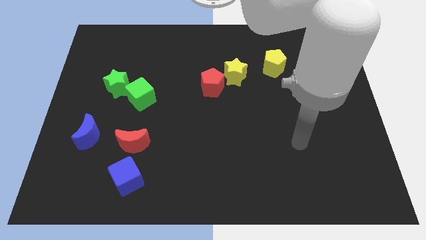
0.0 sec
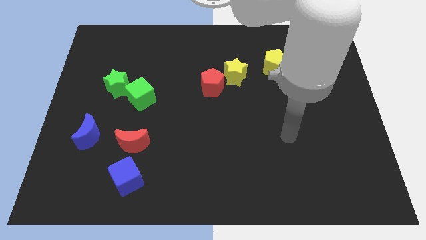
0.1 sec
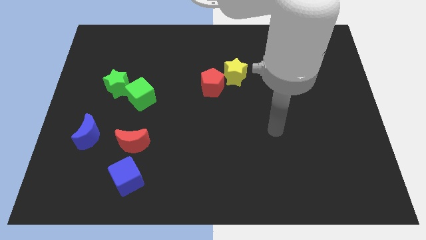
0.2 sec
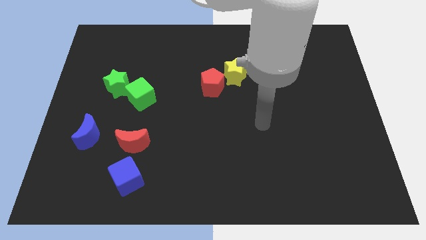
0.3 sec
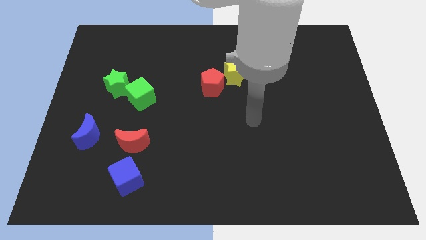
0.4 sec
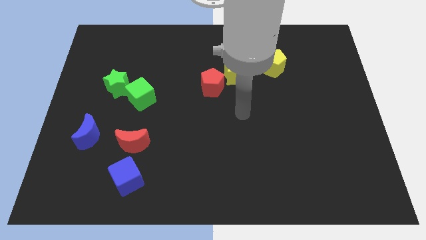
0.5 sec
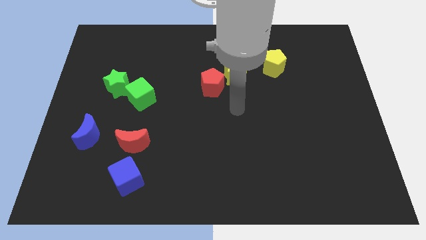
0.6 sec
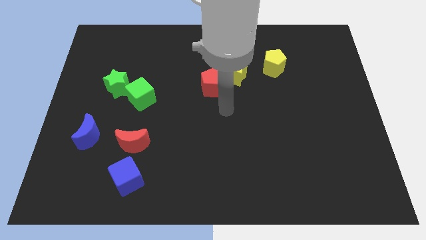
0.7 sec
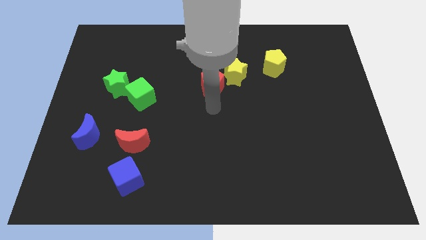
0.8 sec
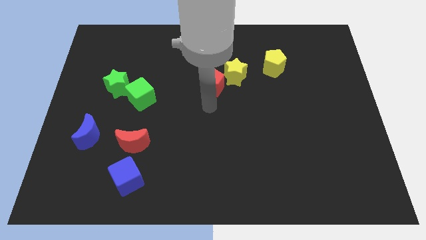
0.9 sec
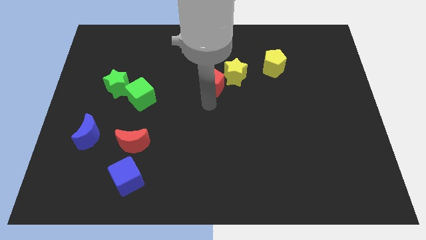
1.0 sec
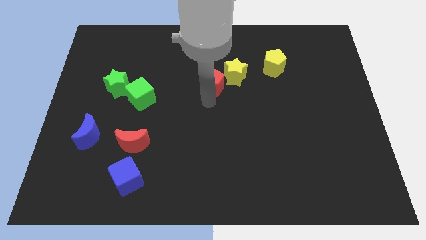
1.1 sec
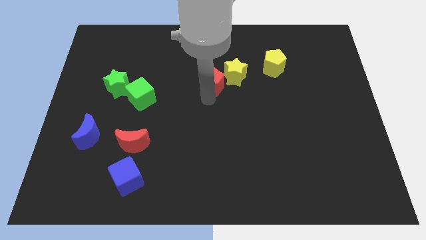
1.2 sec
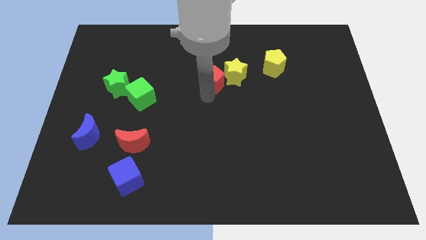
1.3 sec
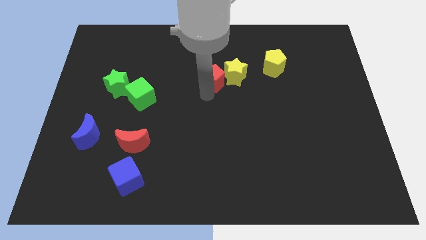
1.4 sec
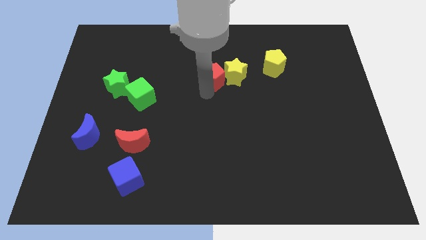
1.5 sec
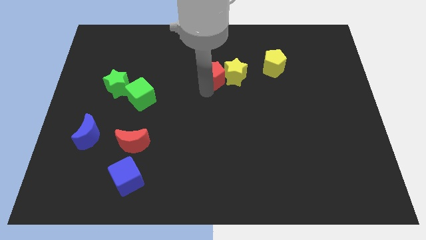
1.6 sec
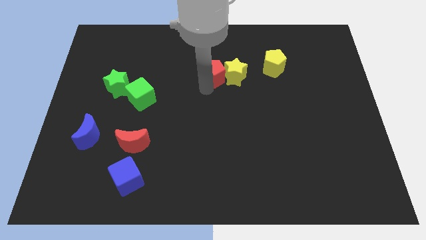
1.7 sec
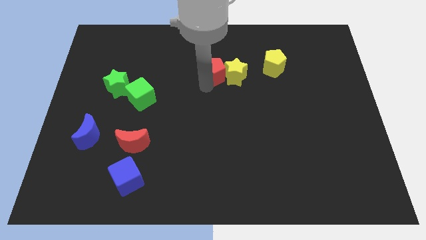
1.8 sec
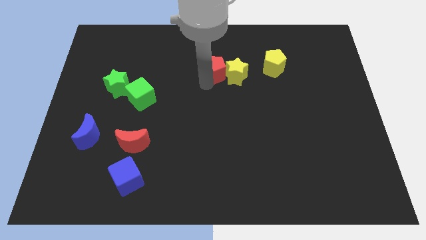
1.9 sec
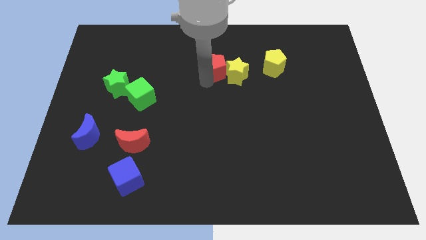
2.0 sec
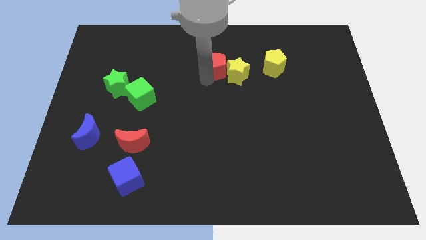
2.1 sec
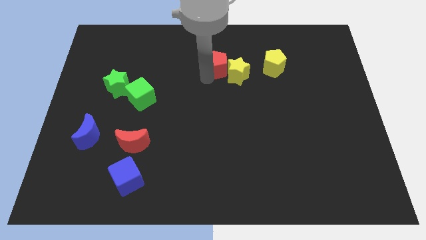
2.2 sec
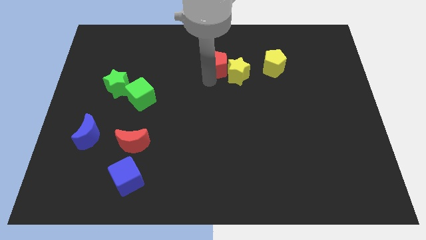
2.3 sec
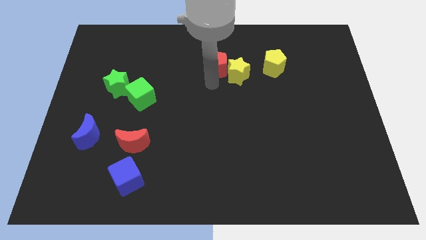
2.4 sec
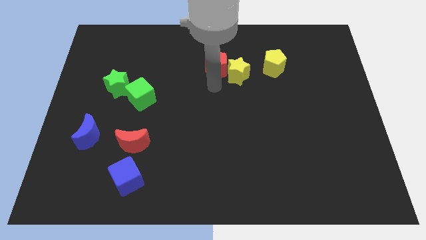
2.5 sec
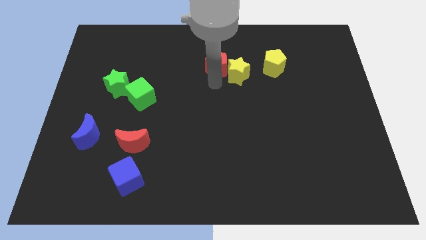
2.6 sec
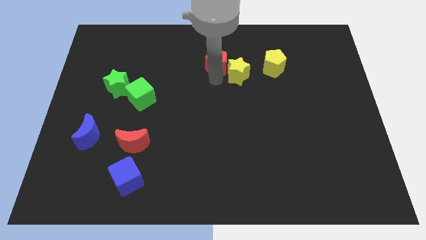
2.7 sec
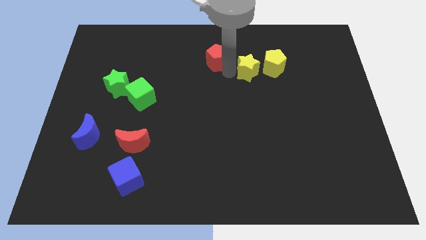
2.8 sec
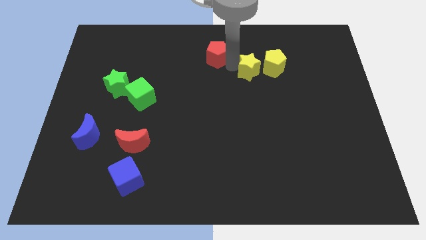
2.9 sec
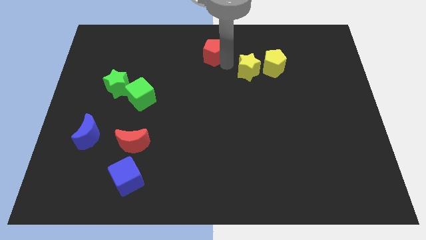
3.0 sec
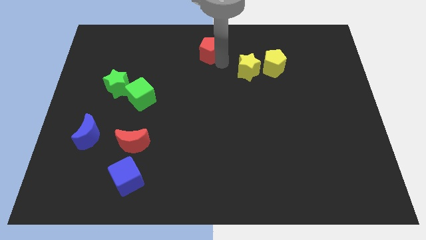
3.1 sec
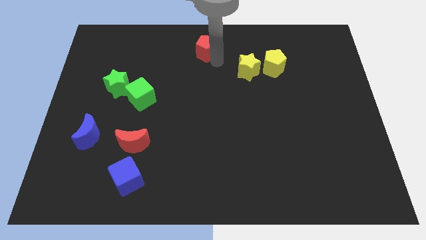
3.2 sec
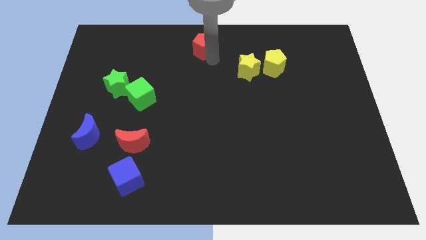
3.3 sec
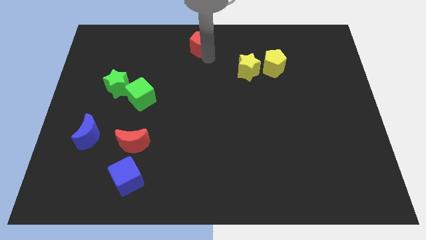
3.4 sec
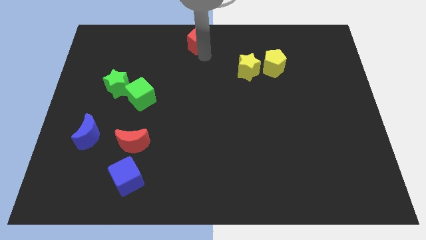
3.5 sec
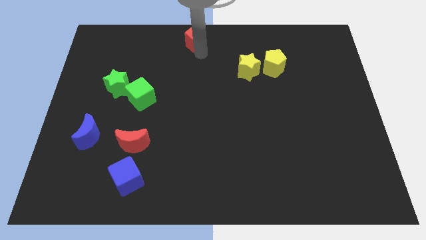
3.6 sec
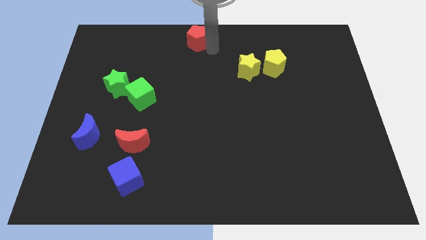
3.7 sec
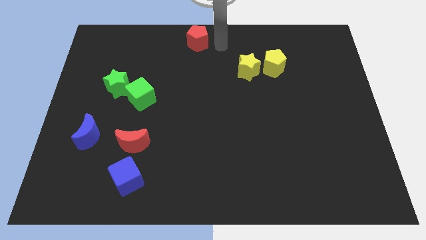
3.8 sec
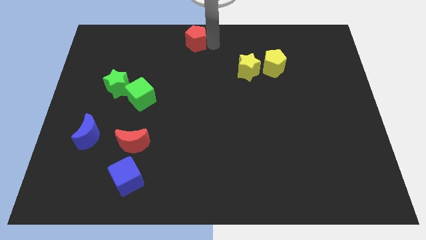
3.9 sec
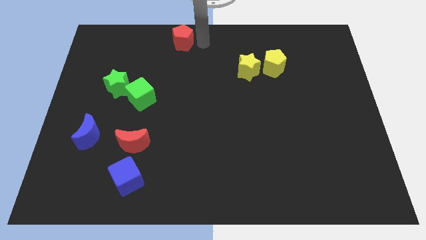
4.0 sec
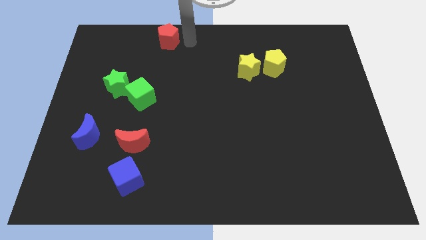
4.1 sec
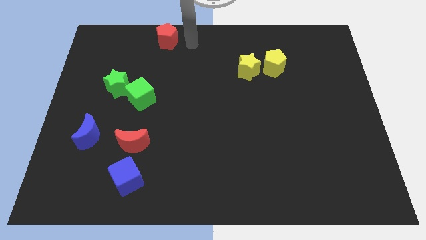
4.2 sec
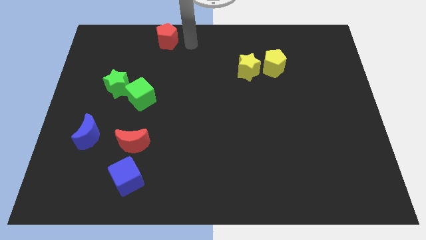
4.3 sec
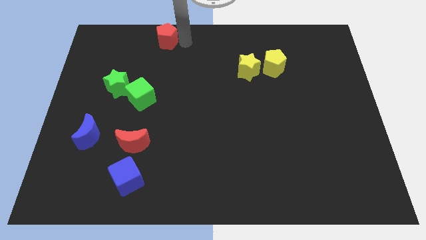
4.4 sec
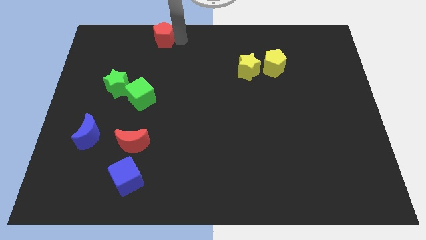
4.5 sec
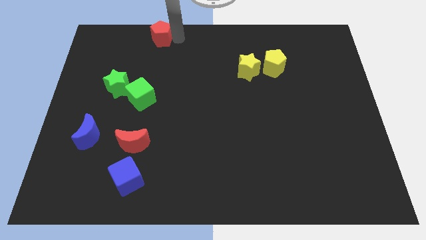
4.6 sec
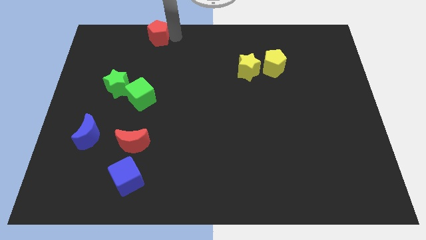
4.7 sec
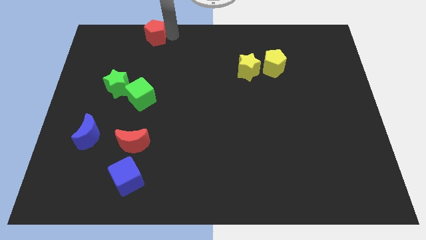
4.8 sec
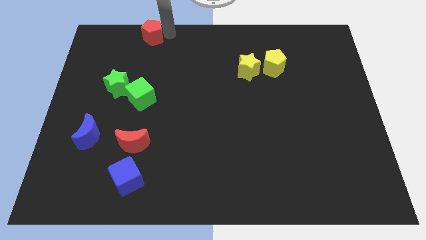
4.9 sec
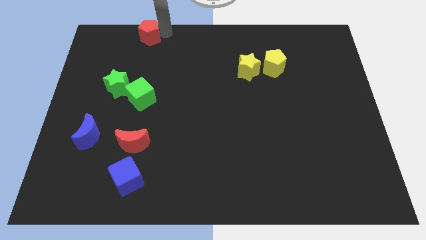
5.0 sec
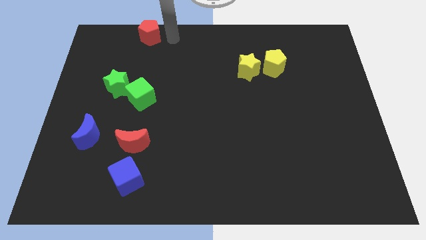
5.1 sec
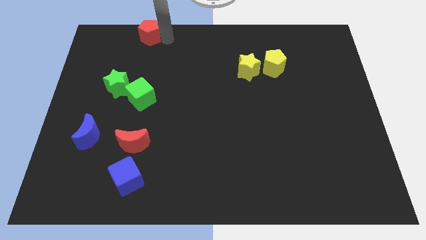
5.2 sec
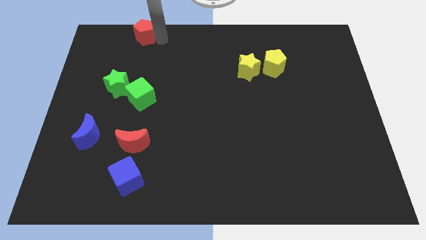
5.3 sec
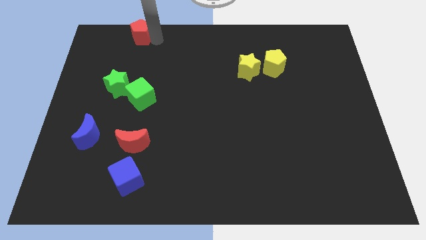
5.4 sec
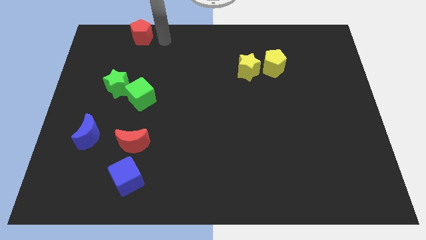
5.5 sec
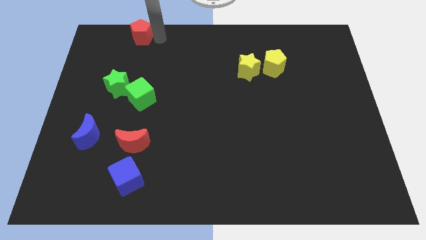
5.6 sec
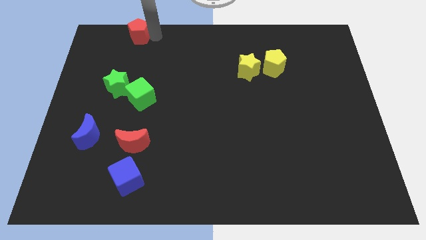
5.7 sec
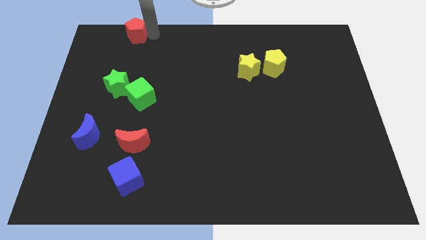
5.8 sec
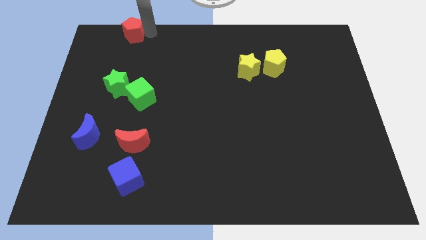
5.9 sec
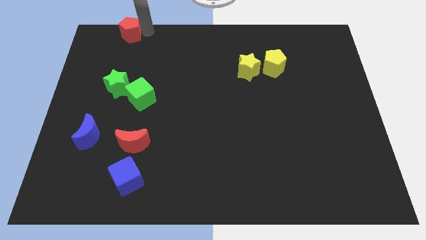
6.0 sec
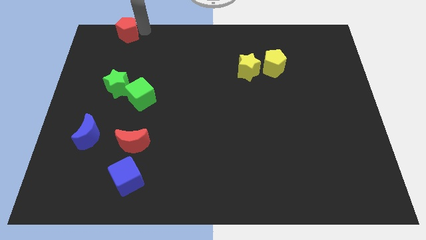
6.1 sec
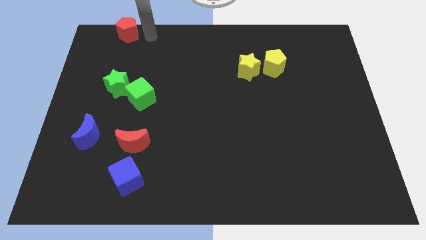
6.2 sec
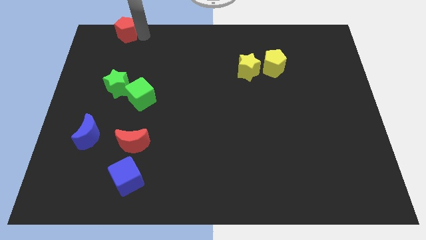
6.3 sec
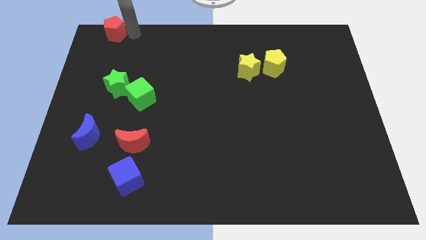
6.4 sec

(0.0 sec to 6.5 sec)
slide the red pentagon to the top left corner

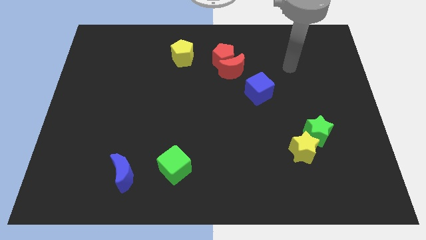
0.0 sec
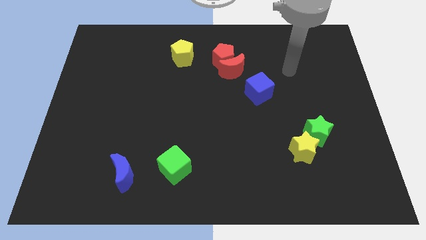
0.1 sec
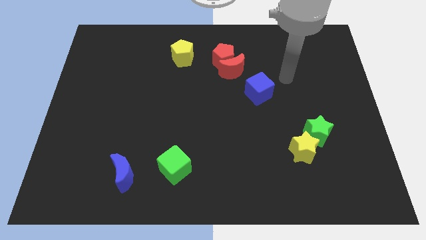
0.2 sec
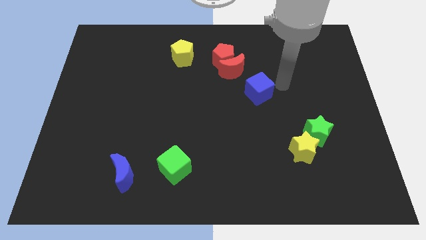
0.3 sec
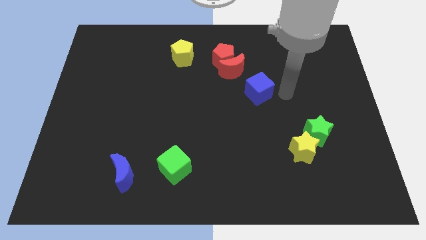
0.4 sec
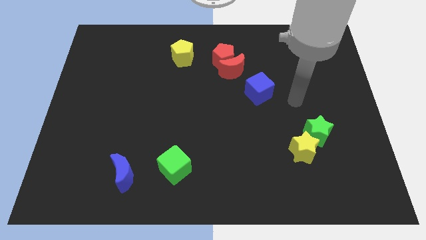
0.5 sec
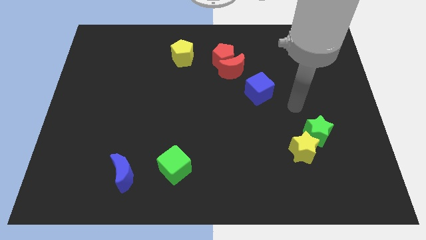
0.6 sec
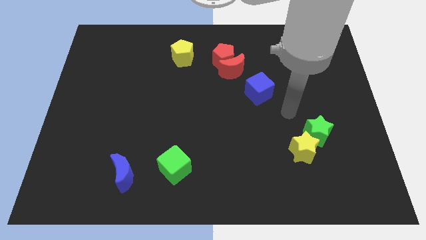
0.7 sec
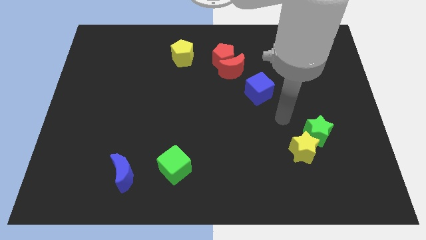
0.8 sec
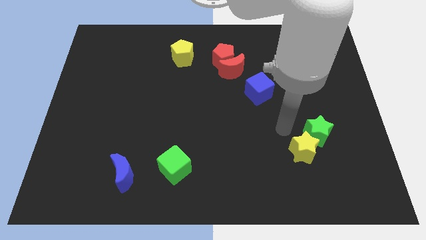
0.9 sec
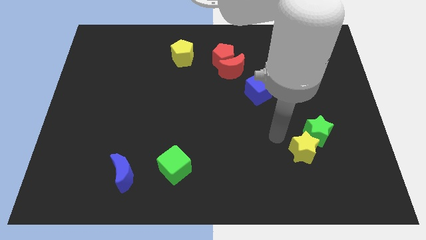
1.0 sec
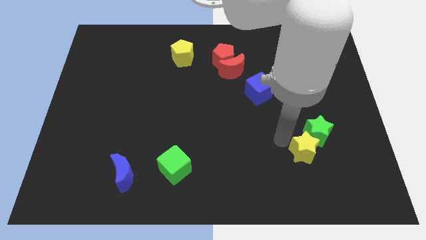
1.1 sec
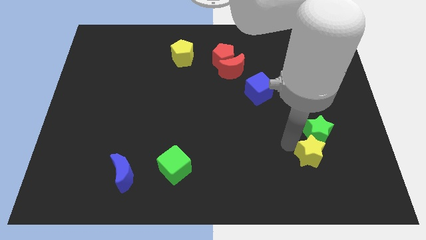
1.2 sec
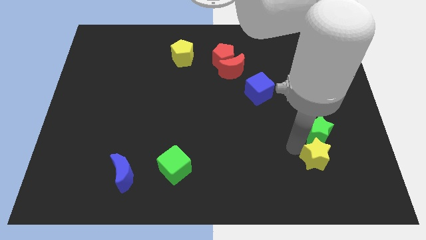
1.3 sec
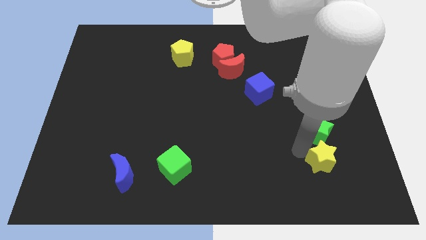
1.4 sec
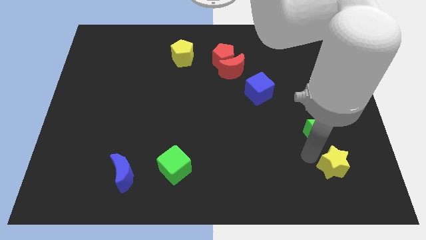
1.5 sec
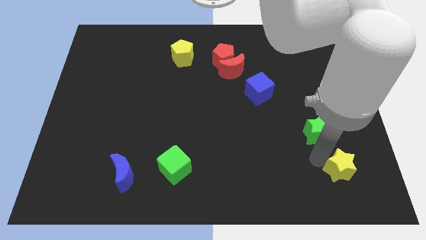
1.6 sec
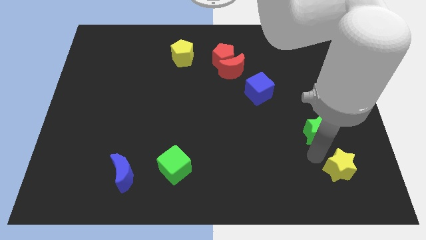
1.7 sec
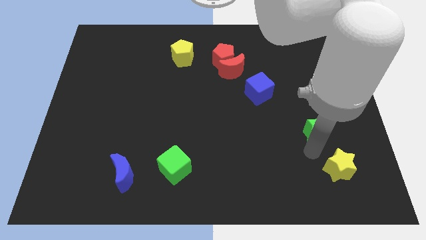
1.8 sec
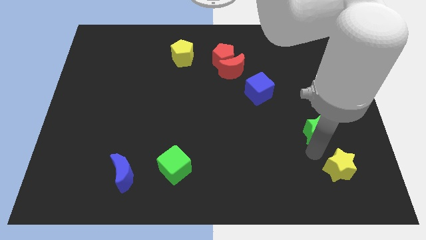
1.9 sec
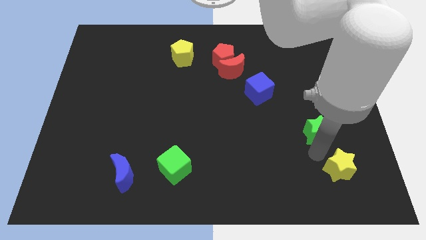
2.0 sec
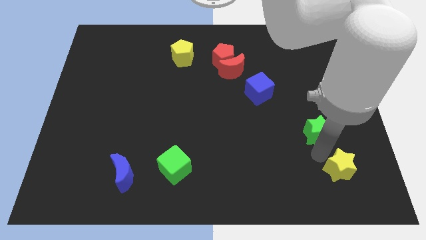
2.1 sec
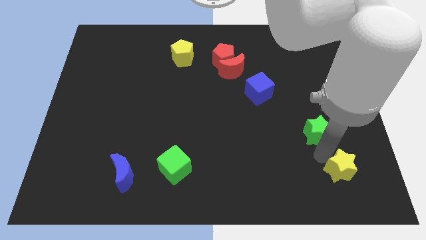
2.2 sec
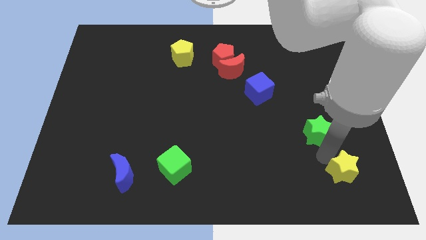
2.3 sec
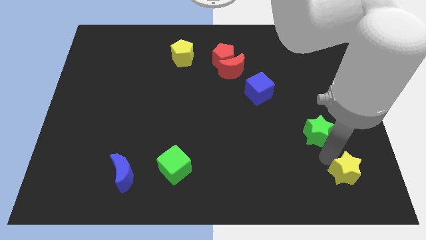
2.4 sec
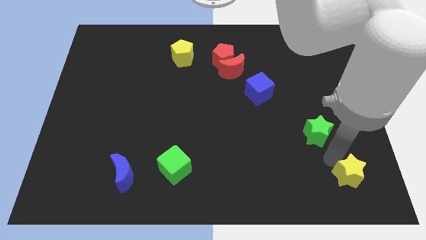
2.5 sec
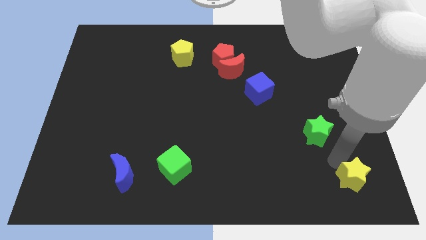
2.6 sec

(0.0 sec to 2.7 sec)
slide the yellow star to the bottom right
